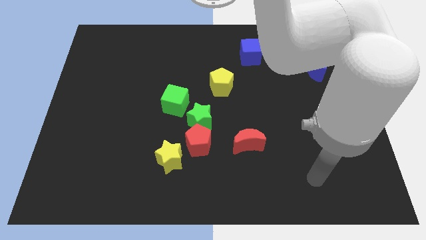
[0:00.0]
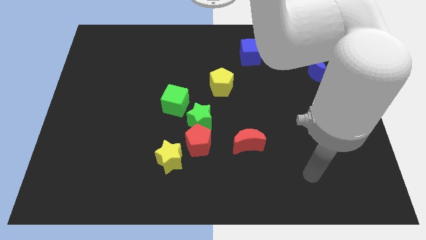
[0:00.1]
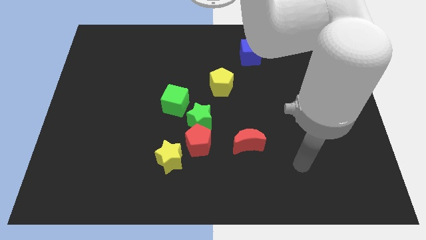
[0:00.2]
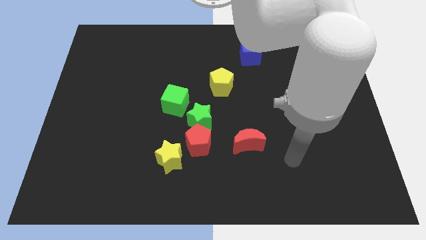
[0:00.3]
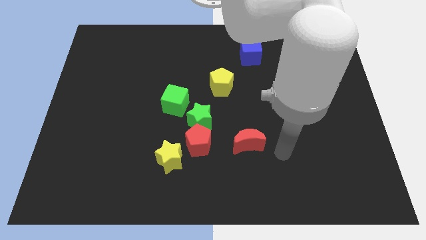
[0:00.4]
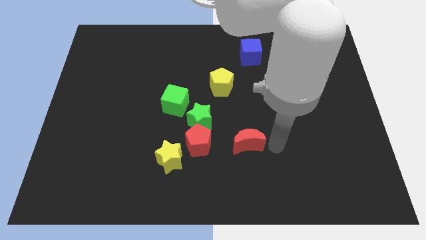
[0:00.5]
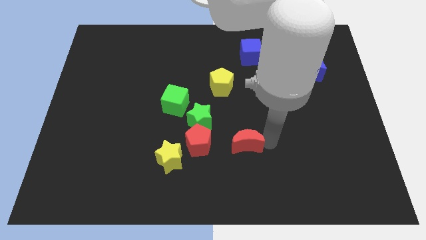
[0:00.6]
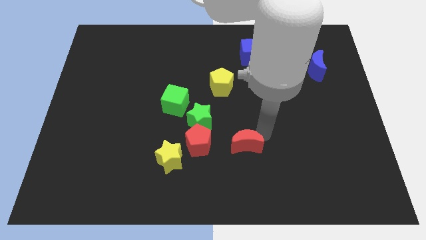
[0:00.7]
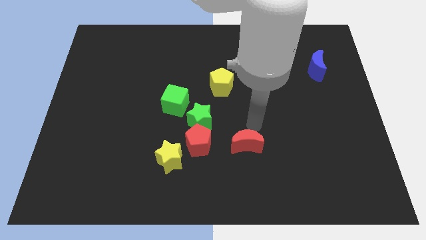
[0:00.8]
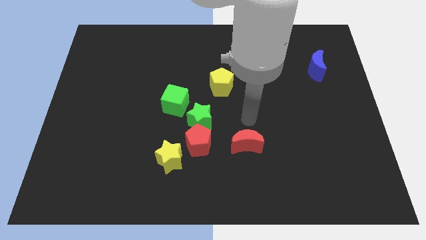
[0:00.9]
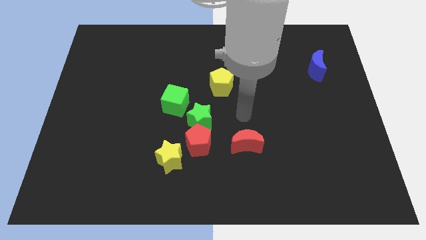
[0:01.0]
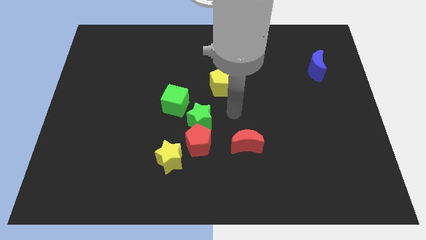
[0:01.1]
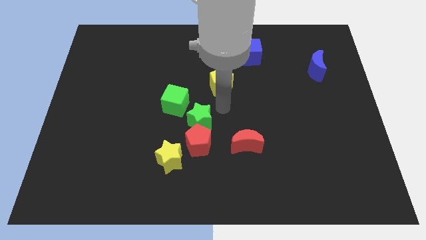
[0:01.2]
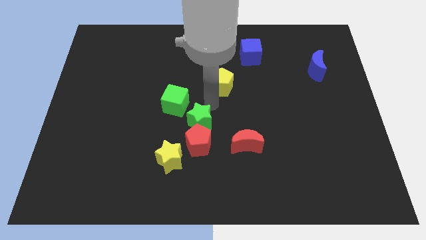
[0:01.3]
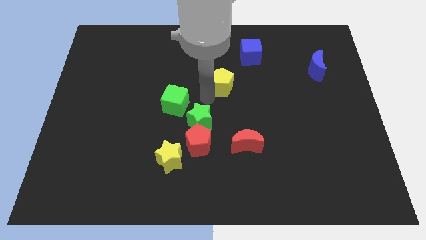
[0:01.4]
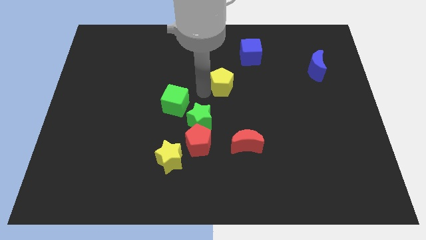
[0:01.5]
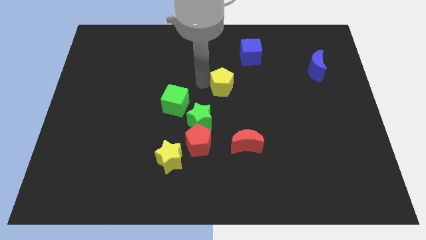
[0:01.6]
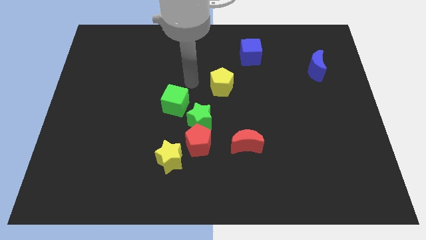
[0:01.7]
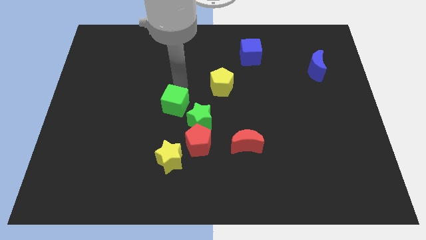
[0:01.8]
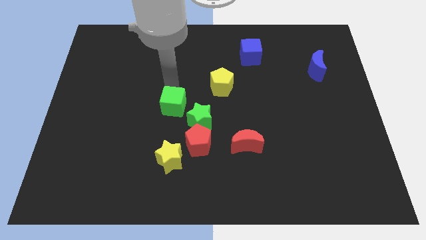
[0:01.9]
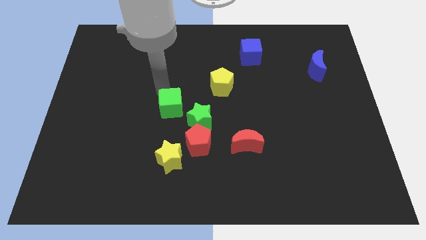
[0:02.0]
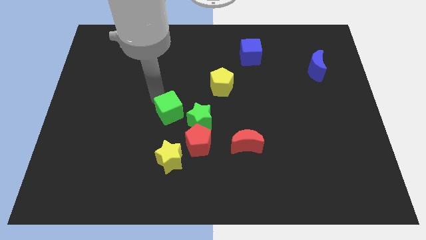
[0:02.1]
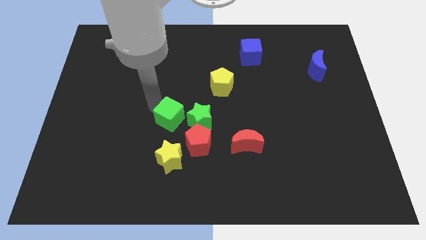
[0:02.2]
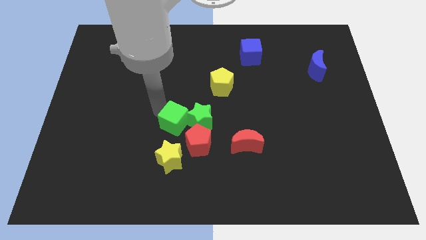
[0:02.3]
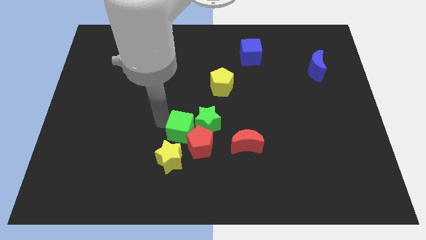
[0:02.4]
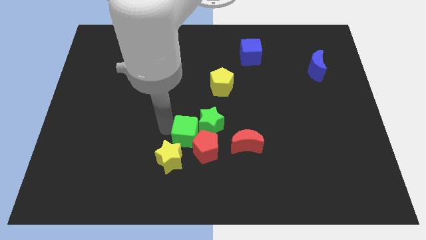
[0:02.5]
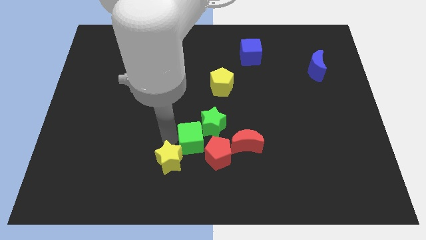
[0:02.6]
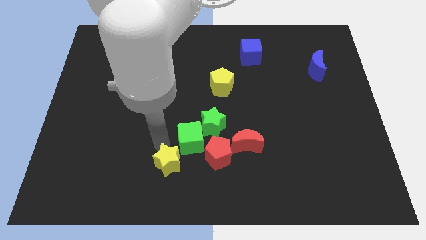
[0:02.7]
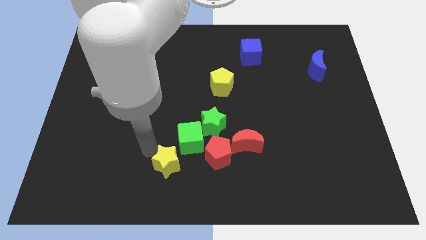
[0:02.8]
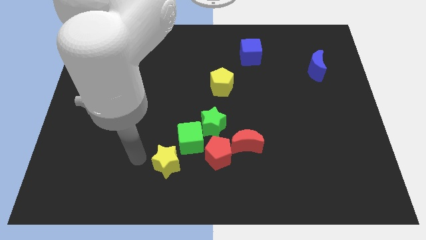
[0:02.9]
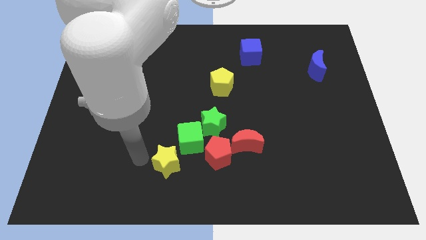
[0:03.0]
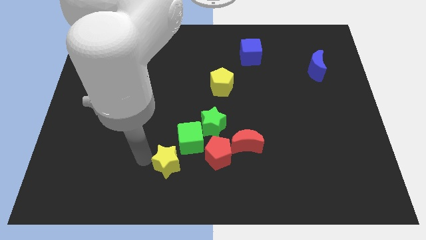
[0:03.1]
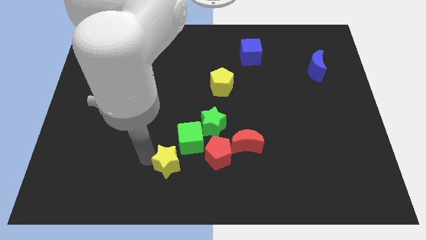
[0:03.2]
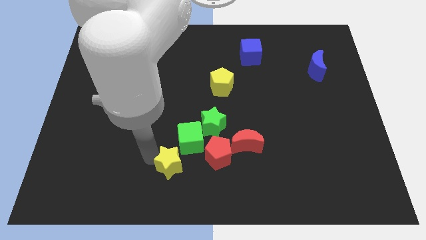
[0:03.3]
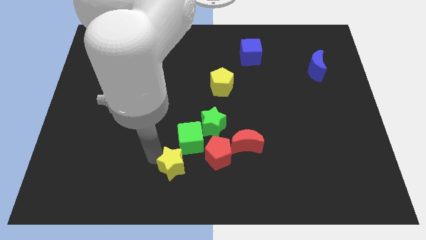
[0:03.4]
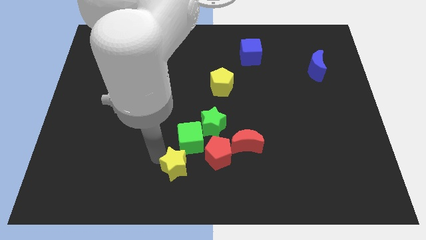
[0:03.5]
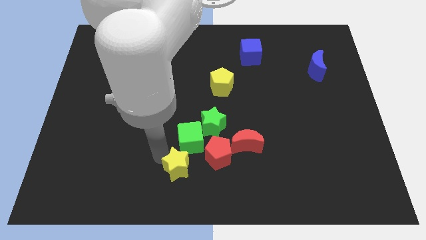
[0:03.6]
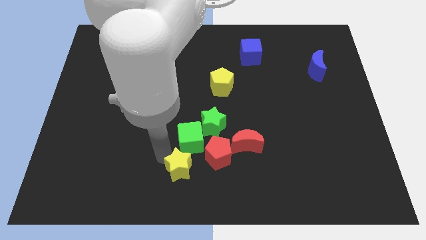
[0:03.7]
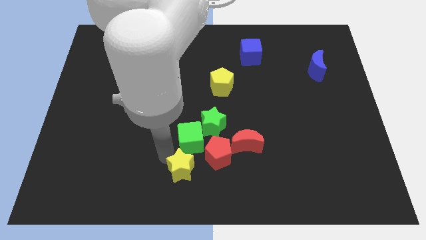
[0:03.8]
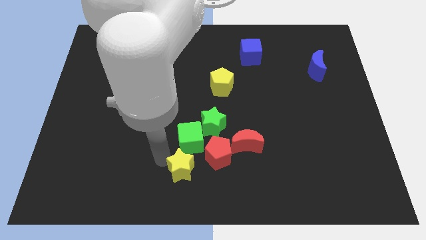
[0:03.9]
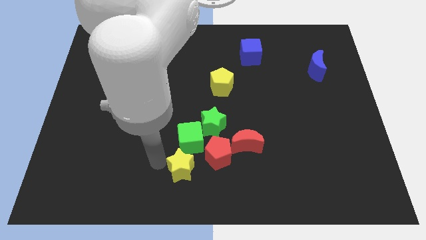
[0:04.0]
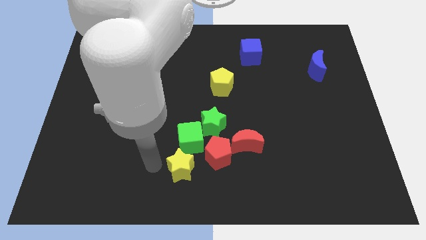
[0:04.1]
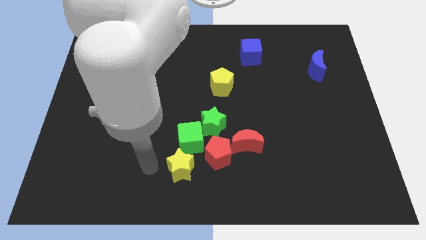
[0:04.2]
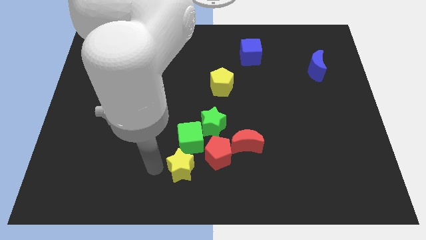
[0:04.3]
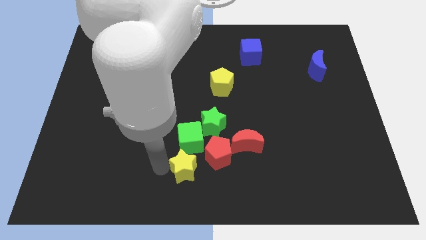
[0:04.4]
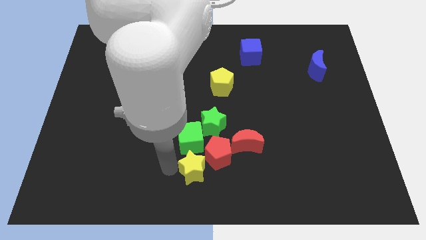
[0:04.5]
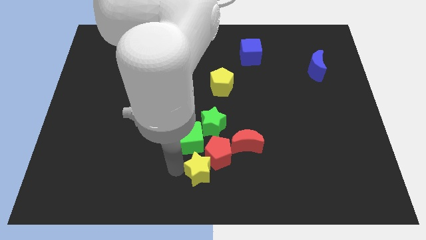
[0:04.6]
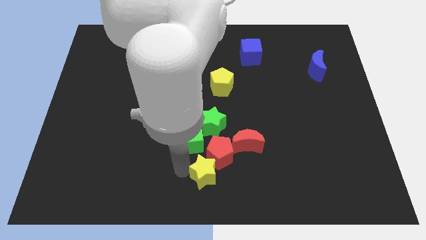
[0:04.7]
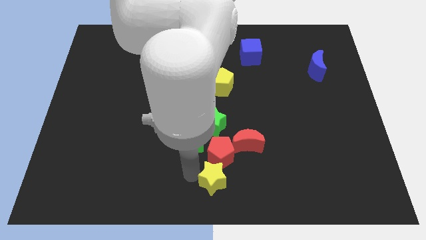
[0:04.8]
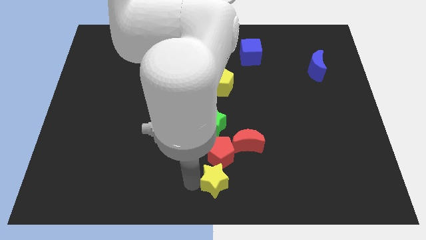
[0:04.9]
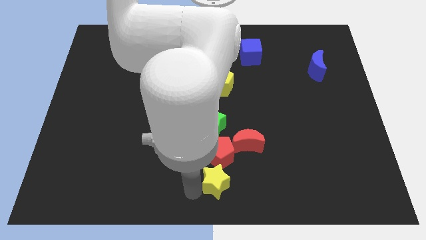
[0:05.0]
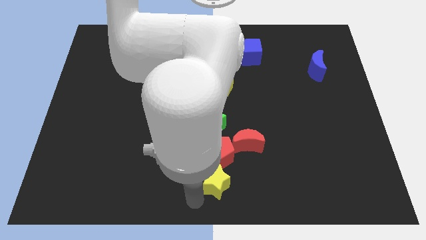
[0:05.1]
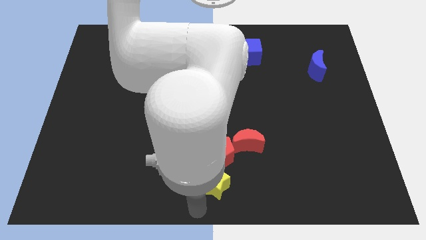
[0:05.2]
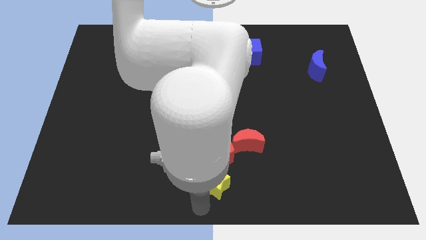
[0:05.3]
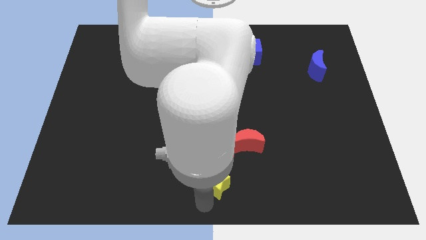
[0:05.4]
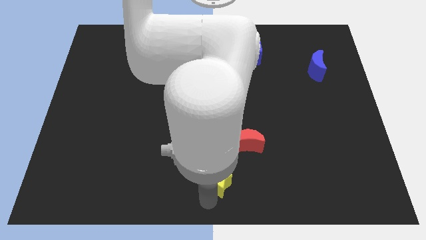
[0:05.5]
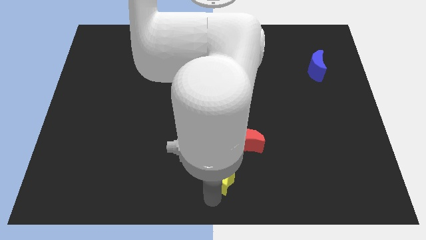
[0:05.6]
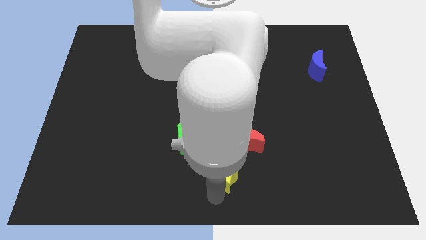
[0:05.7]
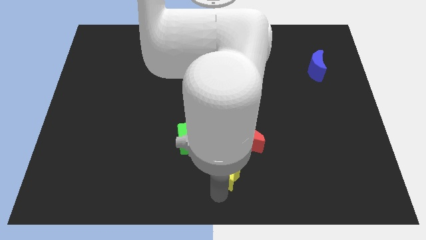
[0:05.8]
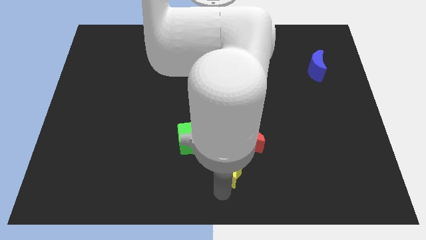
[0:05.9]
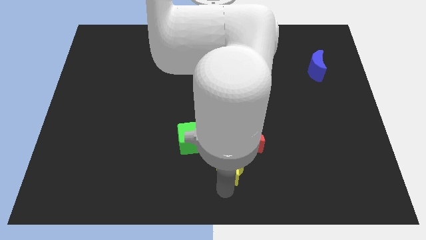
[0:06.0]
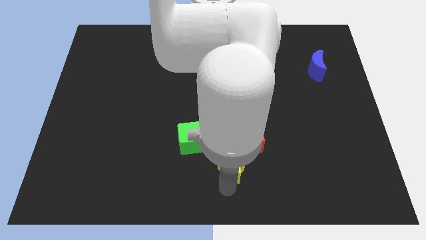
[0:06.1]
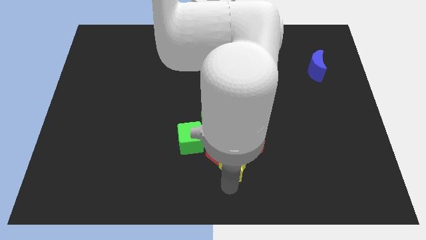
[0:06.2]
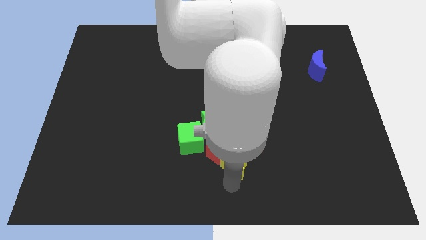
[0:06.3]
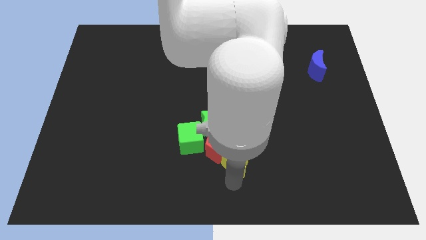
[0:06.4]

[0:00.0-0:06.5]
move the yellow star to the red moon
